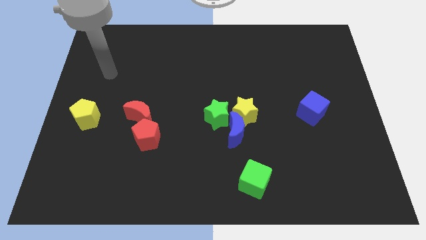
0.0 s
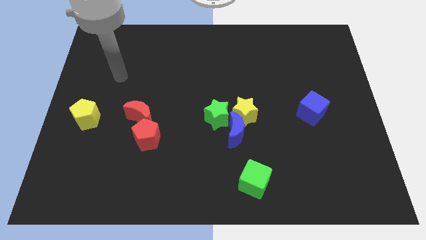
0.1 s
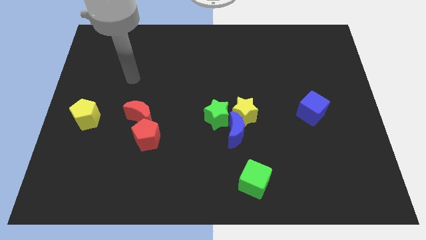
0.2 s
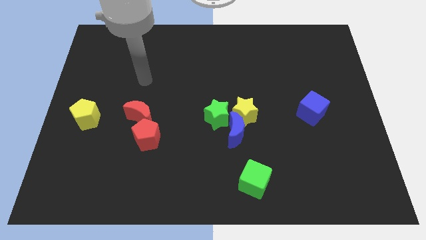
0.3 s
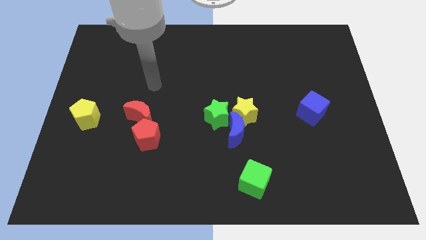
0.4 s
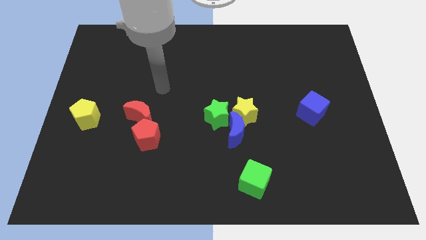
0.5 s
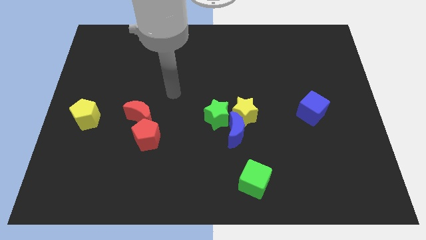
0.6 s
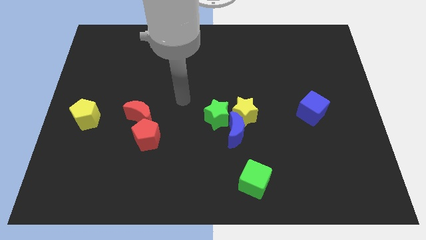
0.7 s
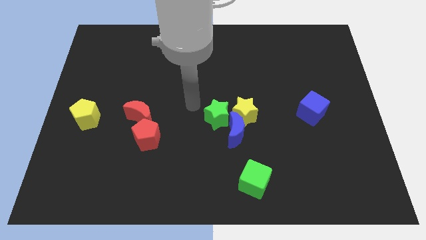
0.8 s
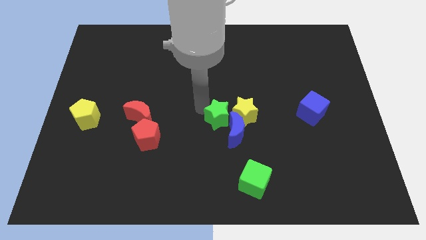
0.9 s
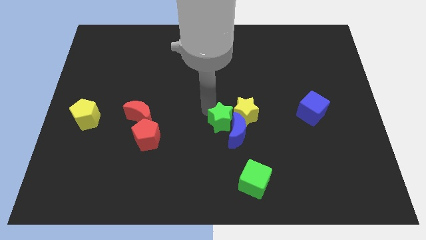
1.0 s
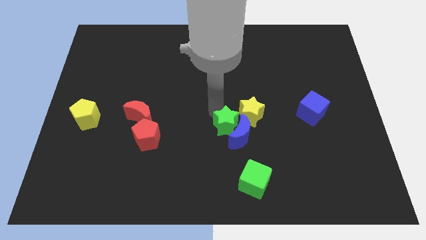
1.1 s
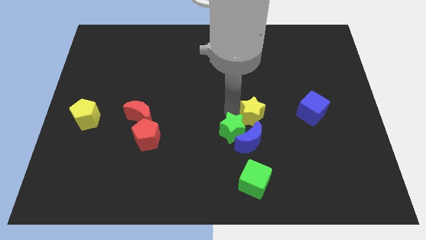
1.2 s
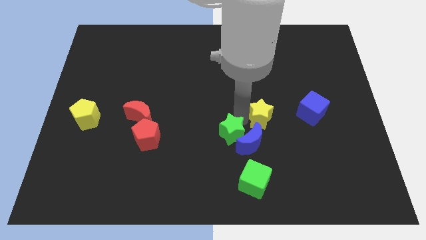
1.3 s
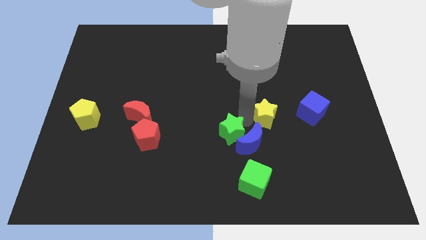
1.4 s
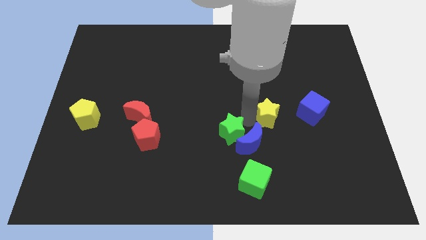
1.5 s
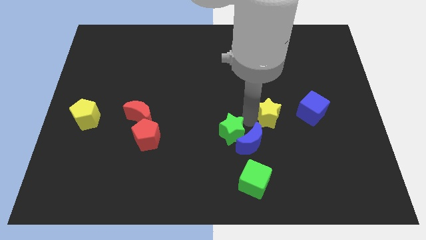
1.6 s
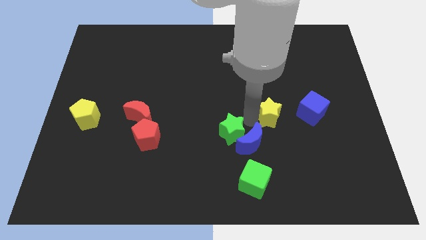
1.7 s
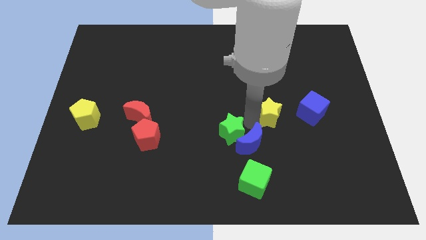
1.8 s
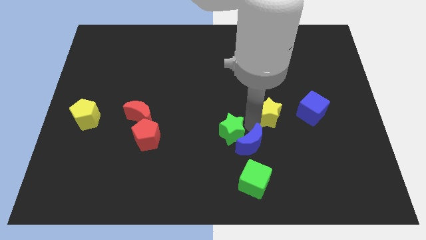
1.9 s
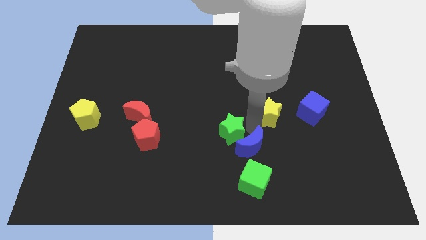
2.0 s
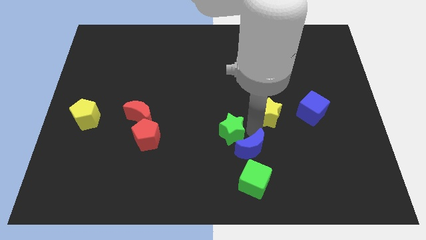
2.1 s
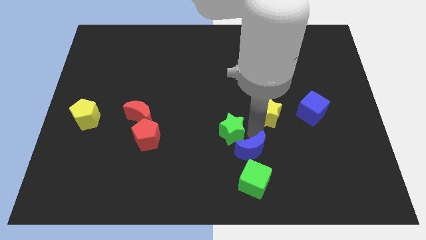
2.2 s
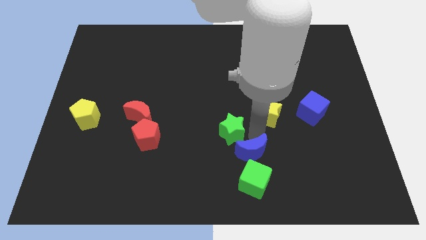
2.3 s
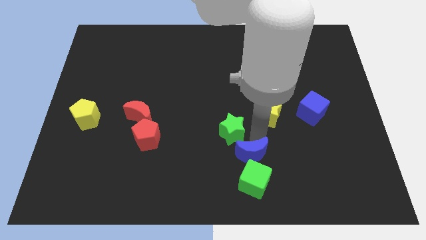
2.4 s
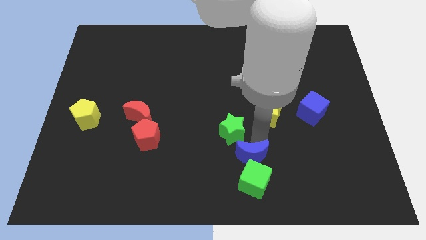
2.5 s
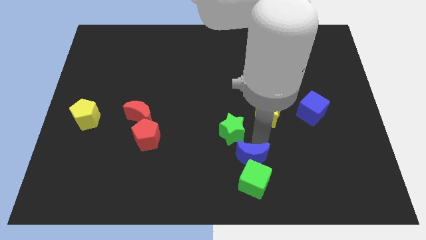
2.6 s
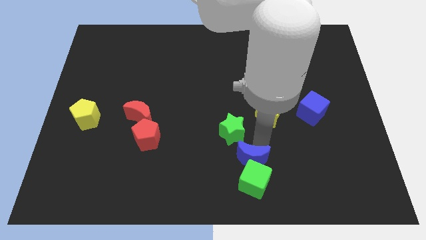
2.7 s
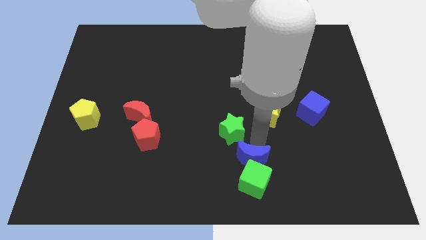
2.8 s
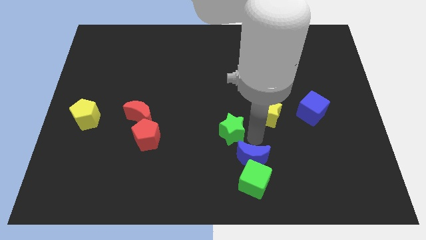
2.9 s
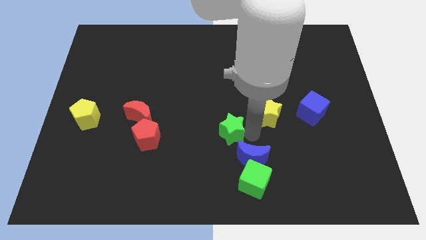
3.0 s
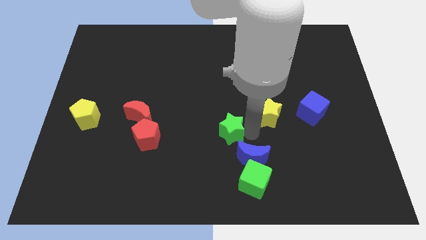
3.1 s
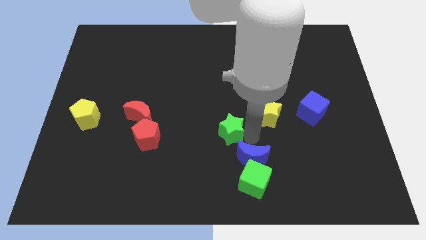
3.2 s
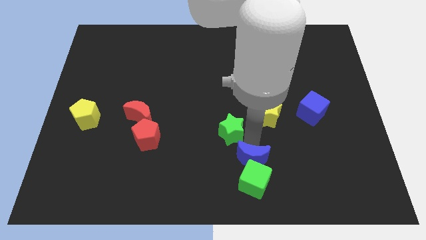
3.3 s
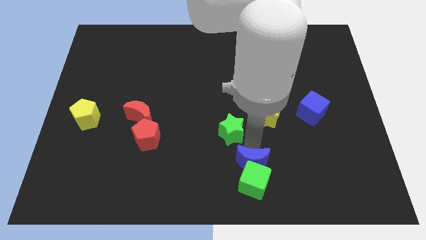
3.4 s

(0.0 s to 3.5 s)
move the blue moon away from the yellow star and green star

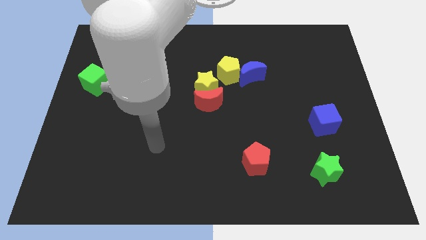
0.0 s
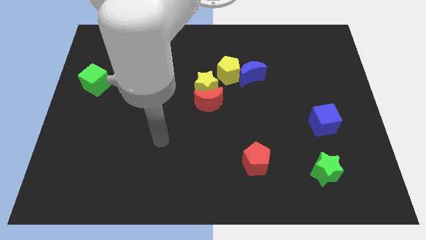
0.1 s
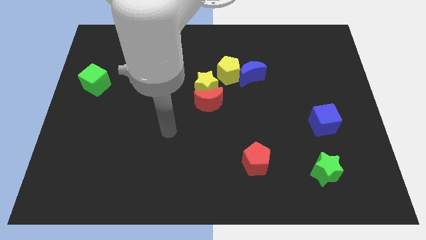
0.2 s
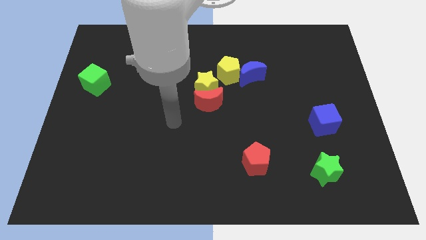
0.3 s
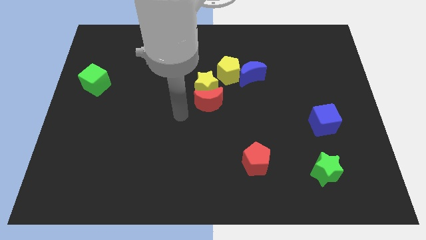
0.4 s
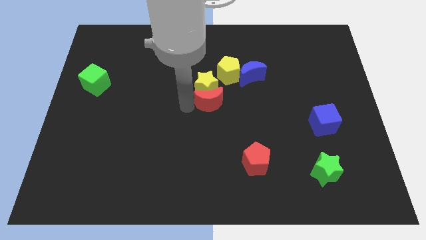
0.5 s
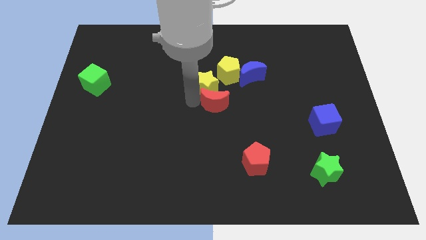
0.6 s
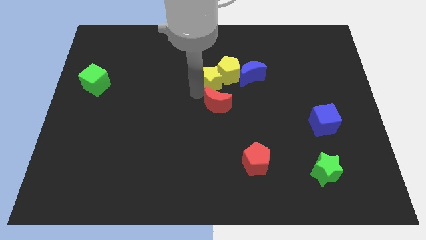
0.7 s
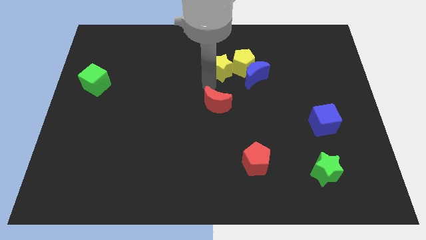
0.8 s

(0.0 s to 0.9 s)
move the red moon away from the yellow star

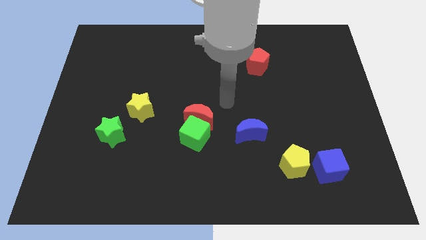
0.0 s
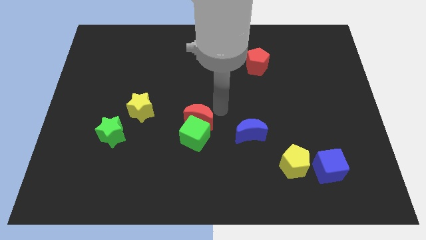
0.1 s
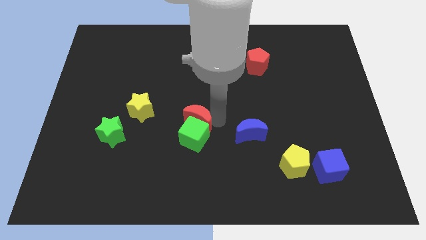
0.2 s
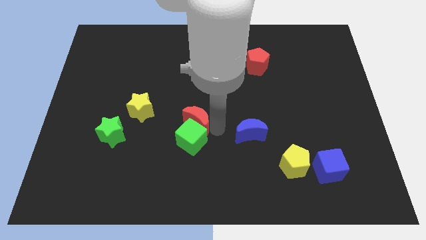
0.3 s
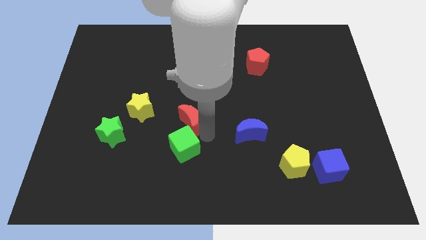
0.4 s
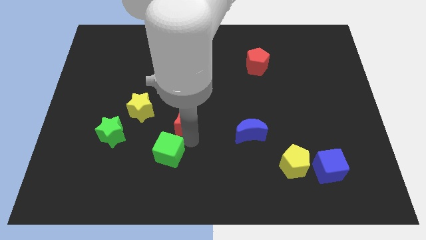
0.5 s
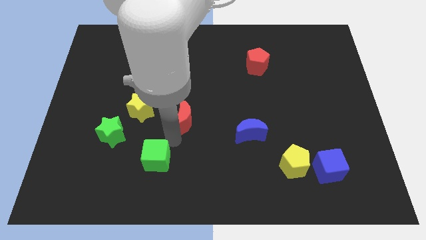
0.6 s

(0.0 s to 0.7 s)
separate the red moon from the green cube

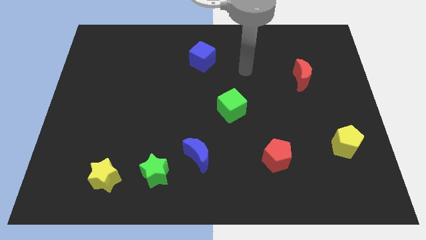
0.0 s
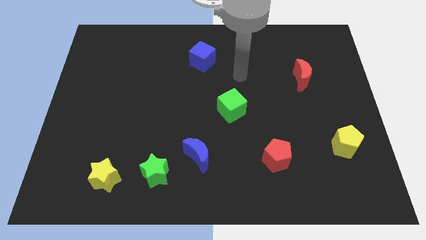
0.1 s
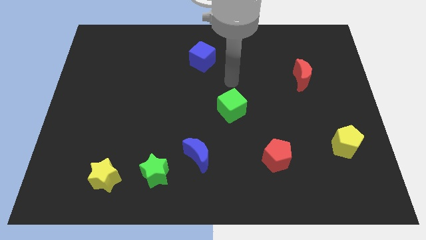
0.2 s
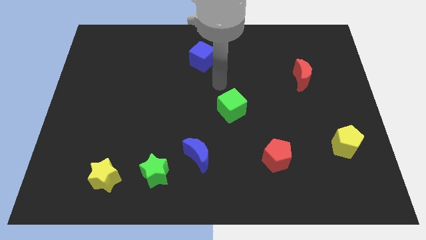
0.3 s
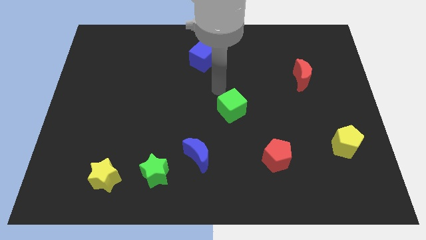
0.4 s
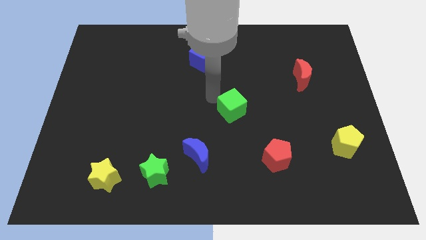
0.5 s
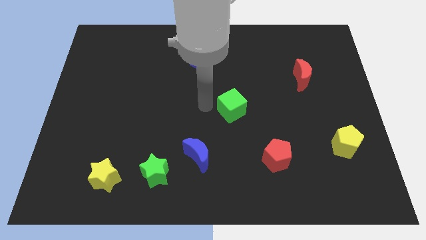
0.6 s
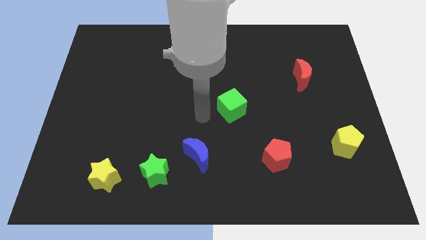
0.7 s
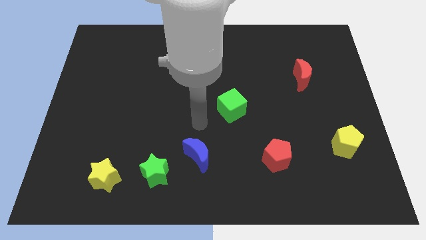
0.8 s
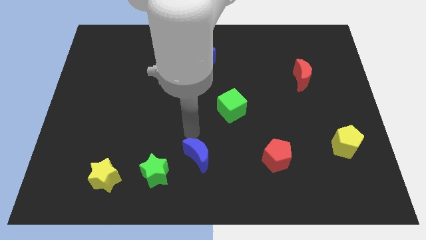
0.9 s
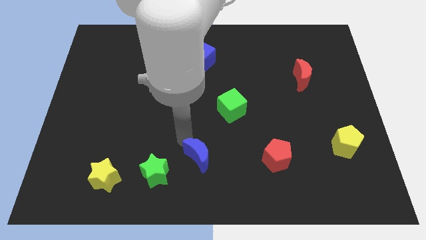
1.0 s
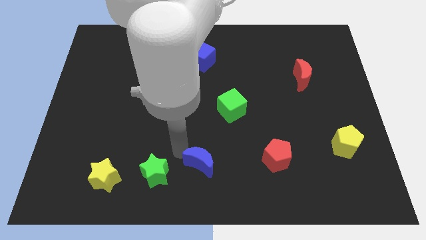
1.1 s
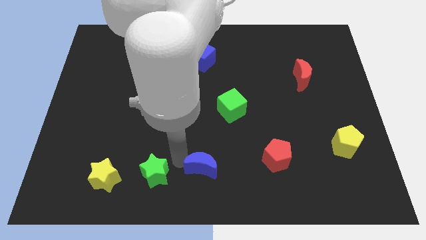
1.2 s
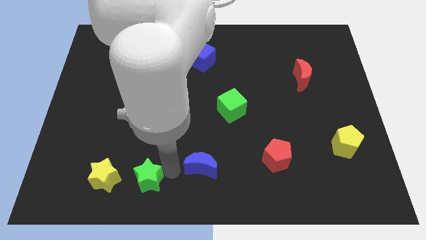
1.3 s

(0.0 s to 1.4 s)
move the blue moon away from the green star

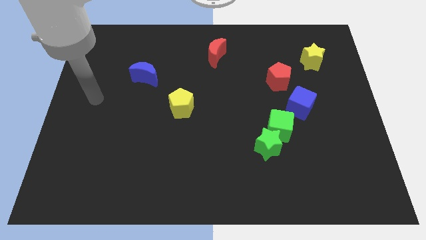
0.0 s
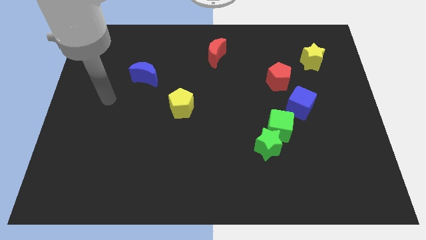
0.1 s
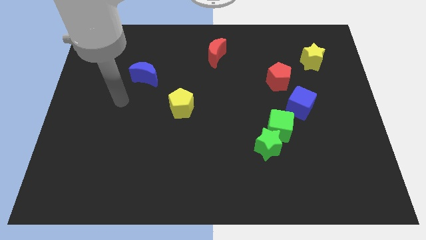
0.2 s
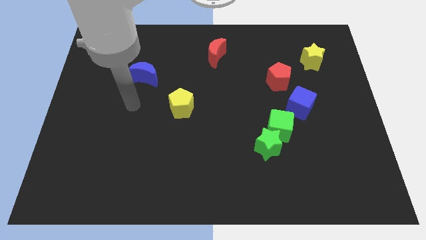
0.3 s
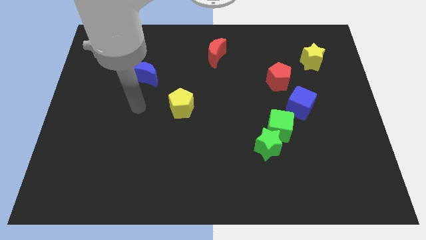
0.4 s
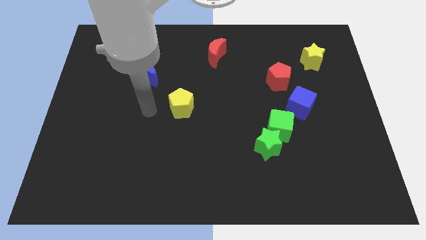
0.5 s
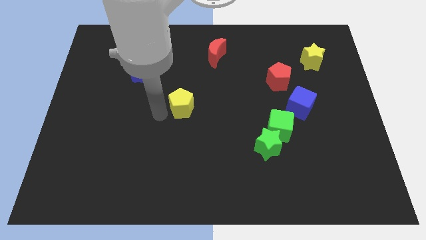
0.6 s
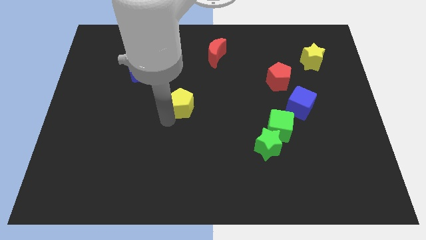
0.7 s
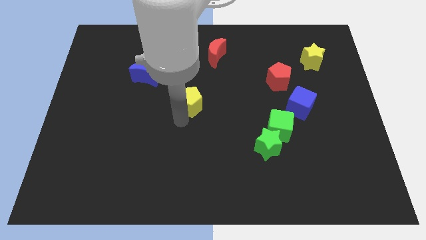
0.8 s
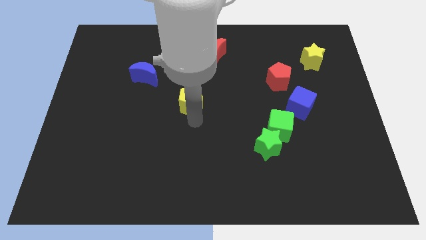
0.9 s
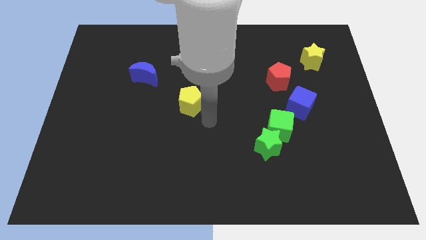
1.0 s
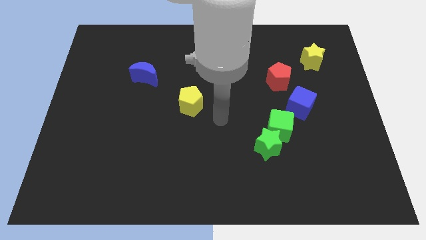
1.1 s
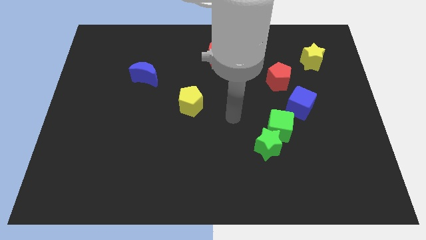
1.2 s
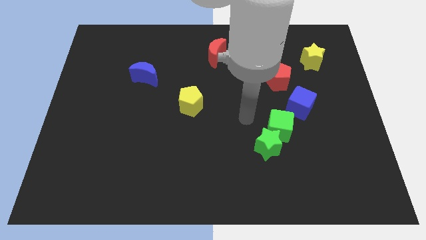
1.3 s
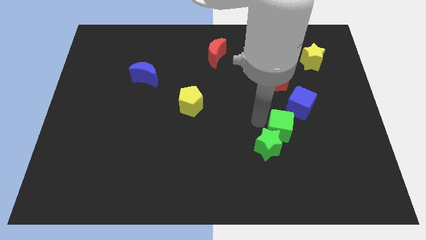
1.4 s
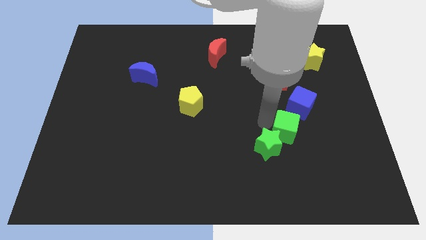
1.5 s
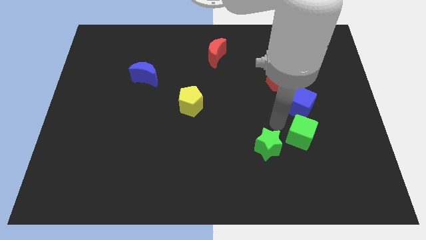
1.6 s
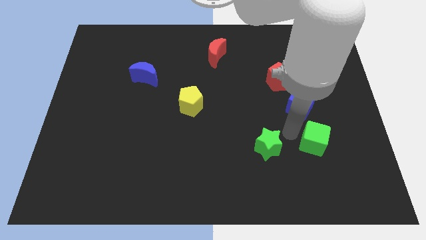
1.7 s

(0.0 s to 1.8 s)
separate the green star from the green cube

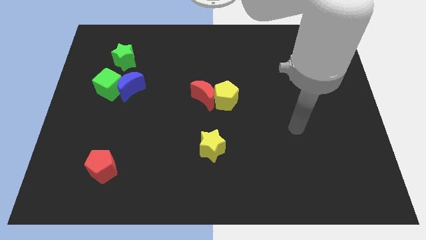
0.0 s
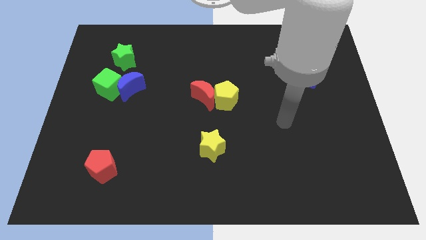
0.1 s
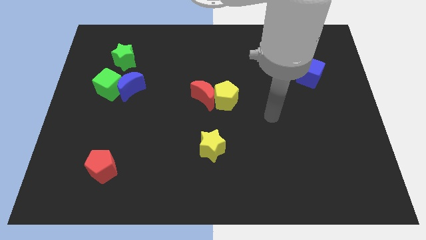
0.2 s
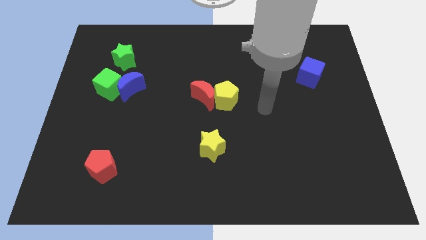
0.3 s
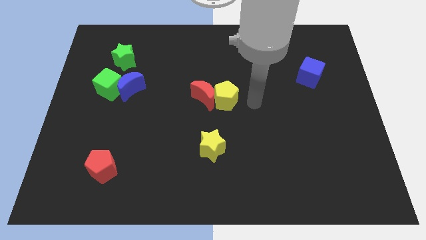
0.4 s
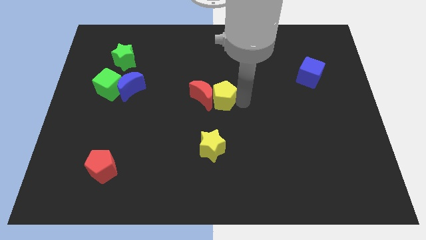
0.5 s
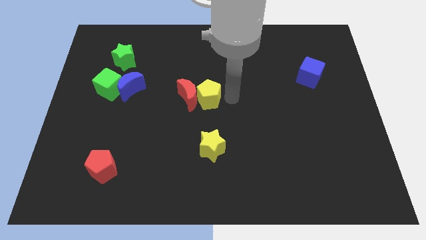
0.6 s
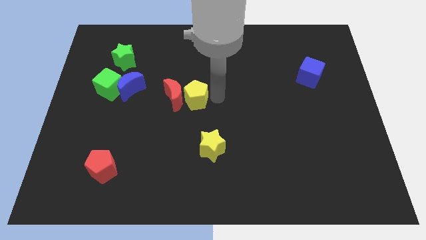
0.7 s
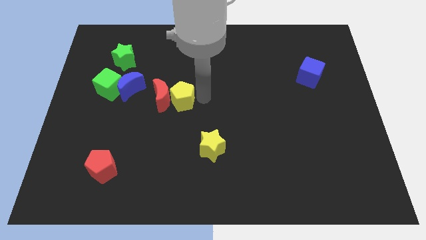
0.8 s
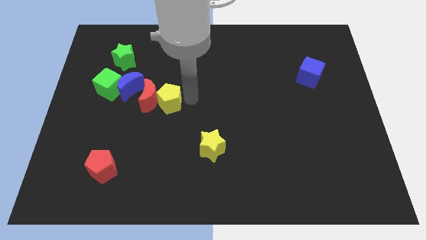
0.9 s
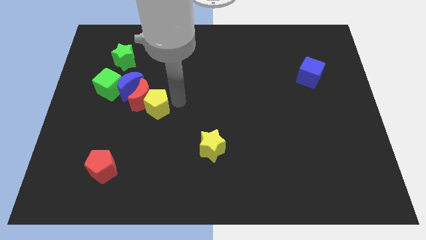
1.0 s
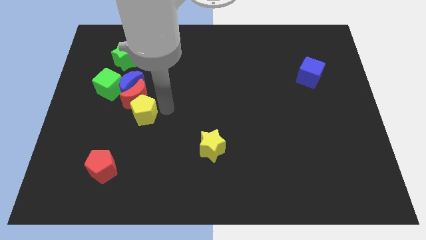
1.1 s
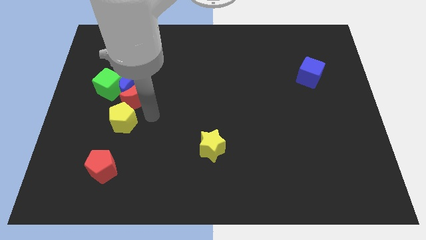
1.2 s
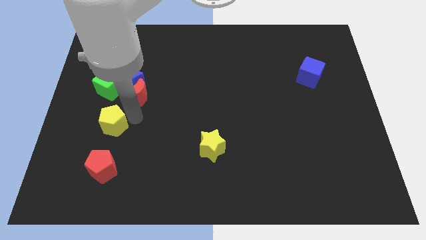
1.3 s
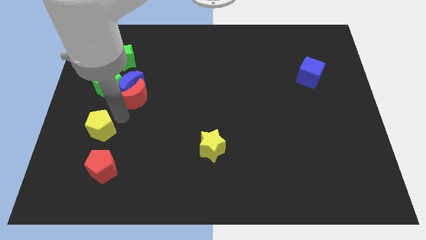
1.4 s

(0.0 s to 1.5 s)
separate the red moon from the yellow pentagon
